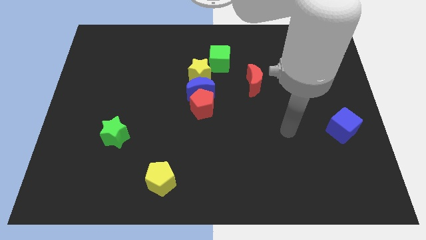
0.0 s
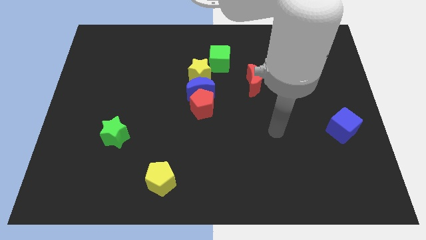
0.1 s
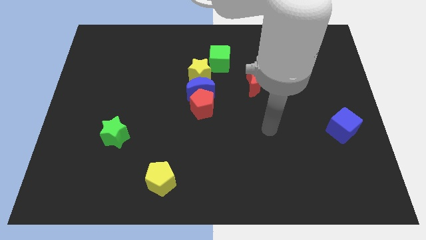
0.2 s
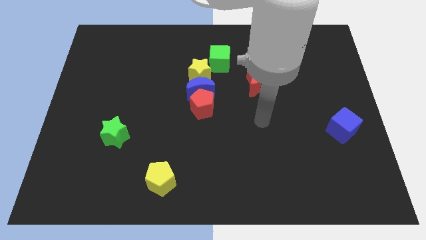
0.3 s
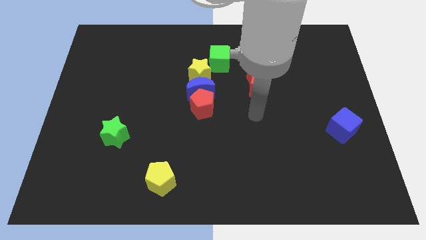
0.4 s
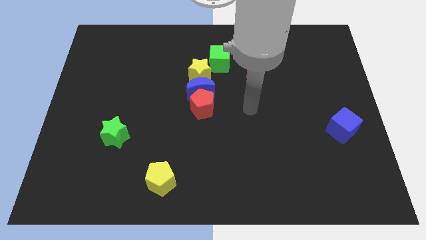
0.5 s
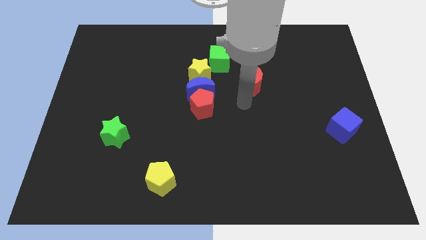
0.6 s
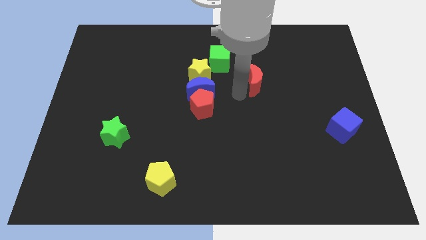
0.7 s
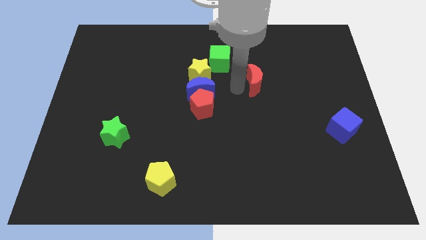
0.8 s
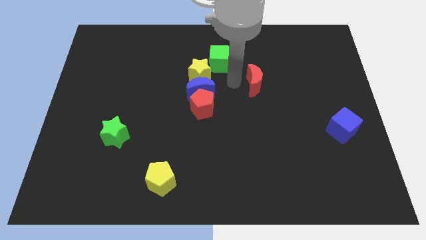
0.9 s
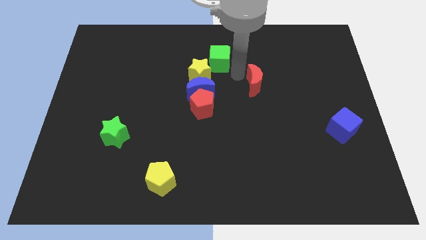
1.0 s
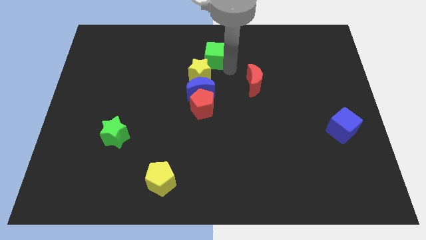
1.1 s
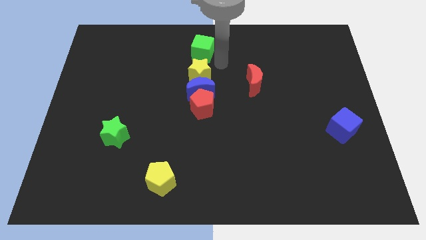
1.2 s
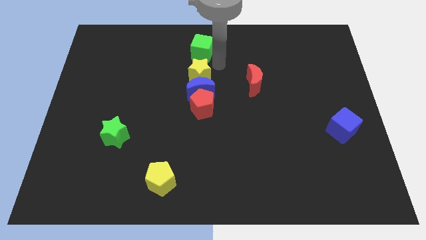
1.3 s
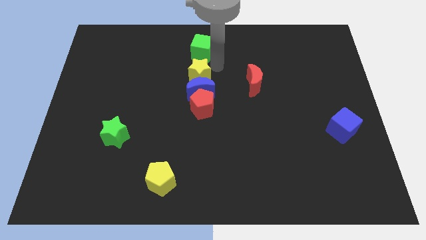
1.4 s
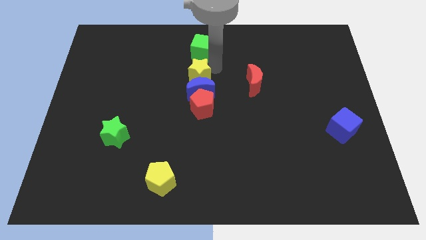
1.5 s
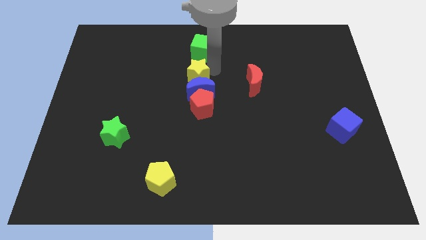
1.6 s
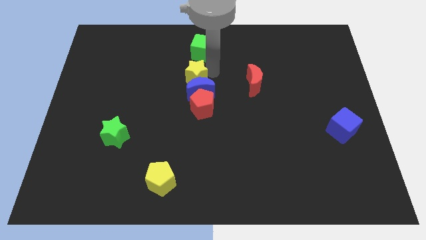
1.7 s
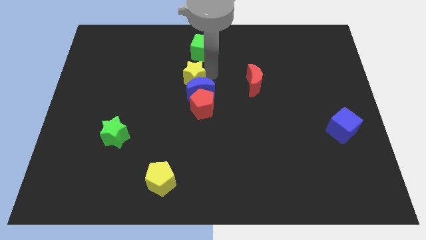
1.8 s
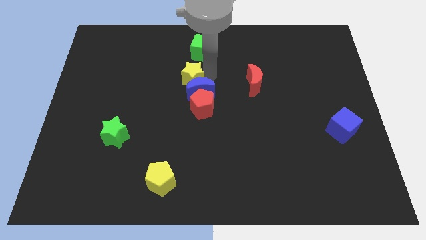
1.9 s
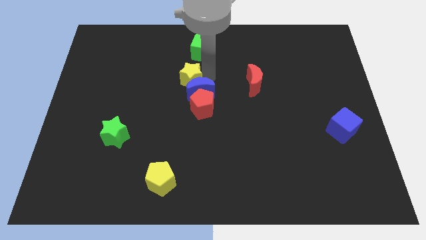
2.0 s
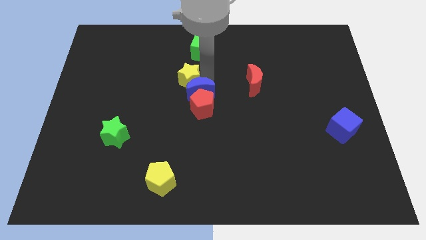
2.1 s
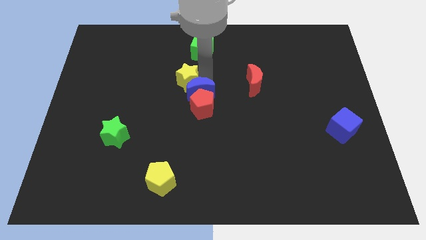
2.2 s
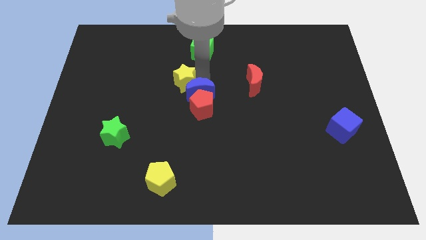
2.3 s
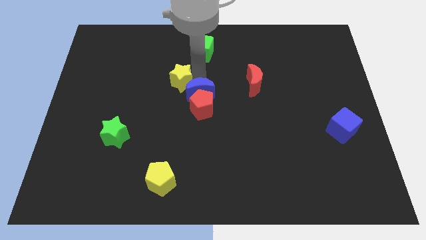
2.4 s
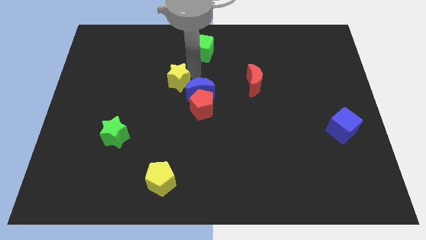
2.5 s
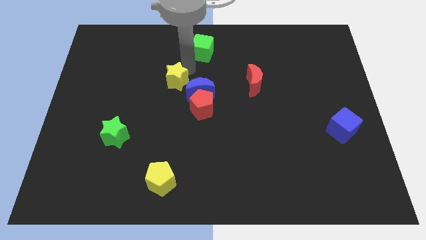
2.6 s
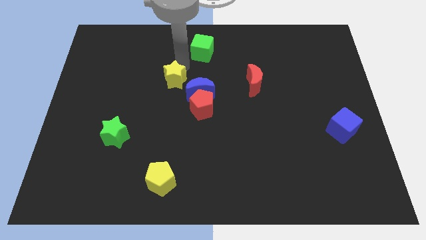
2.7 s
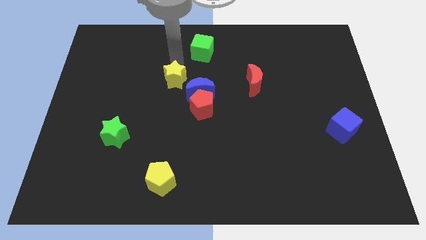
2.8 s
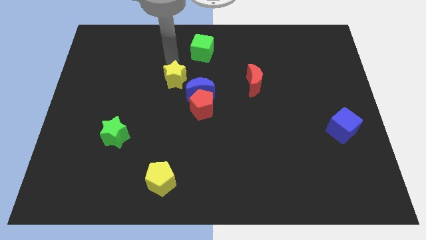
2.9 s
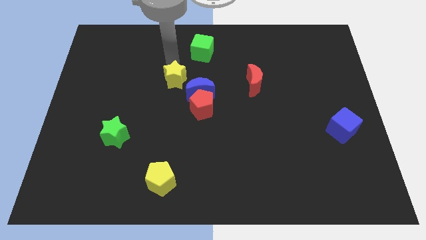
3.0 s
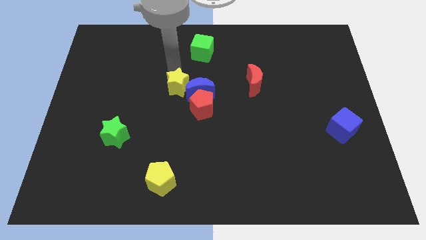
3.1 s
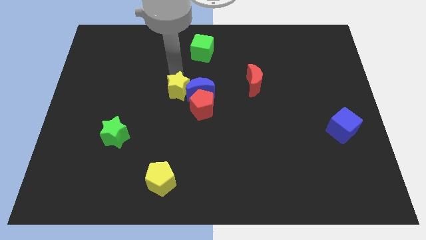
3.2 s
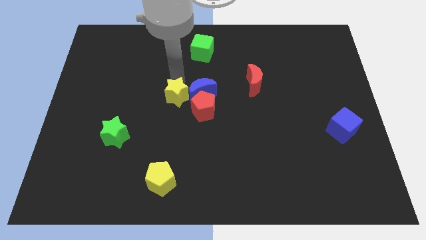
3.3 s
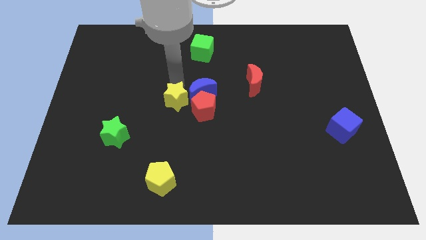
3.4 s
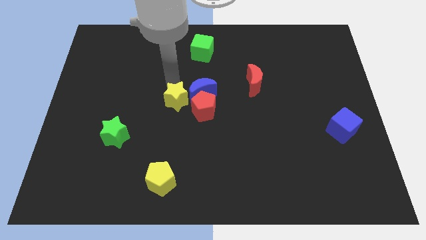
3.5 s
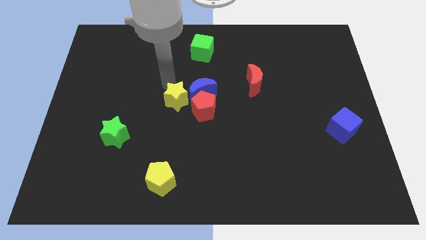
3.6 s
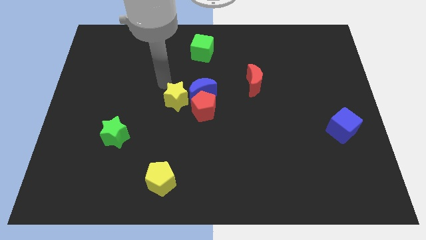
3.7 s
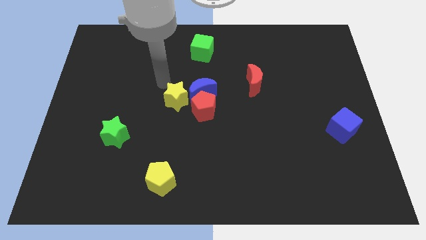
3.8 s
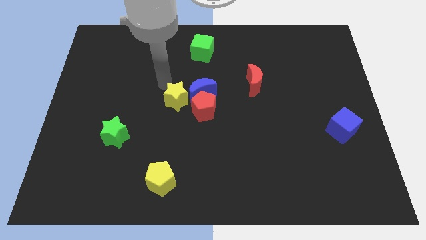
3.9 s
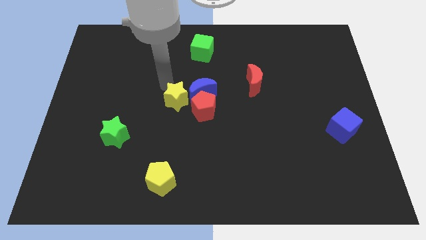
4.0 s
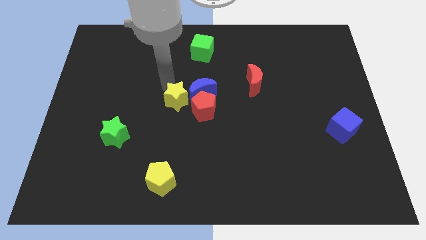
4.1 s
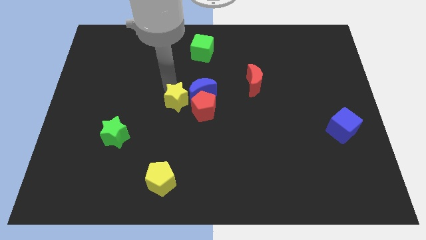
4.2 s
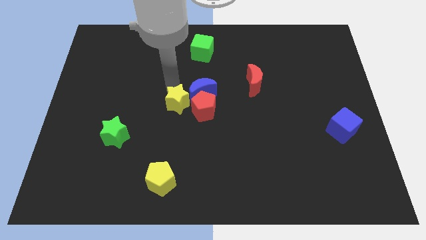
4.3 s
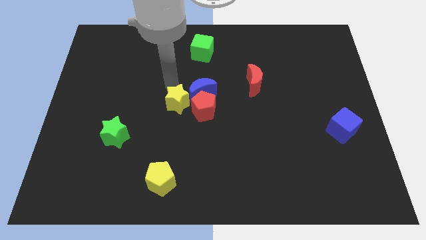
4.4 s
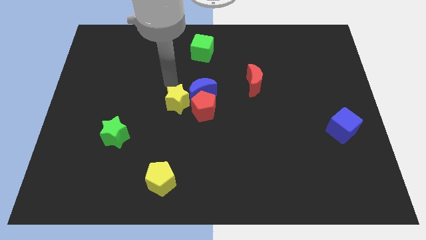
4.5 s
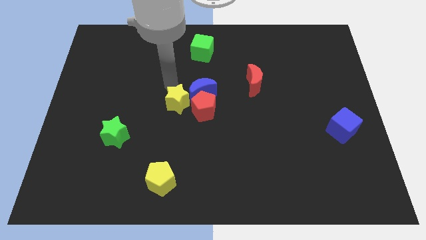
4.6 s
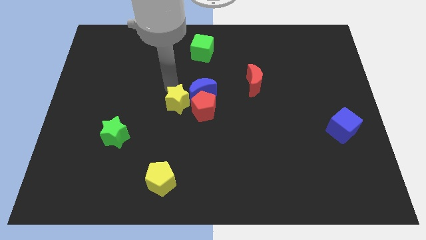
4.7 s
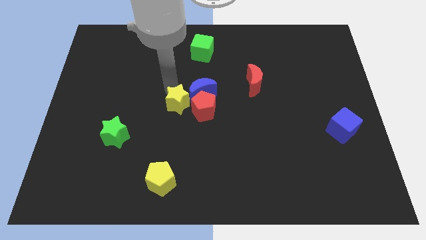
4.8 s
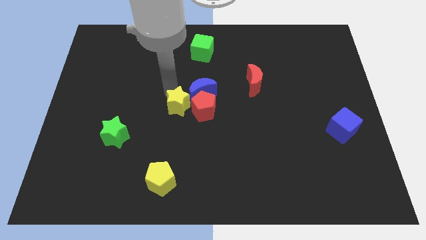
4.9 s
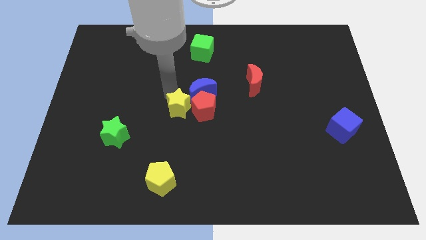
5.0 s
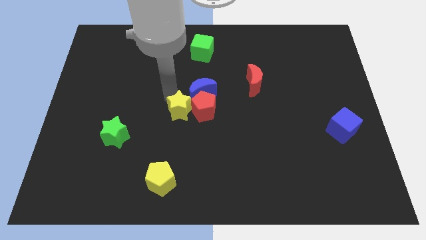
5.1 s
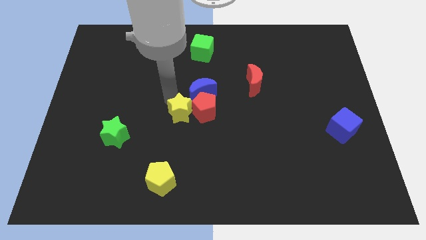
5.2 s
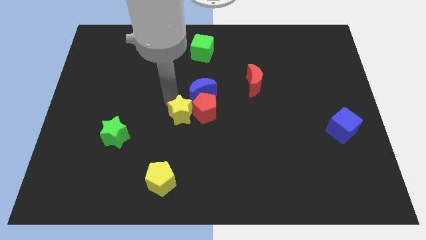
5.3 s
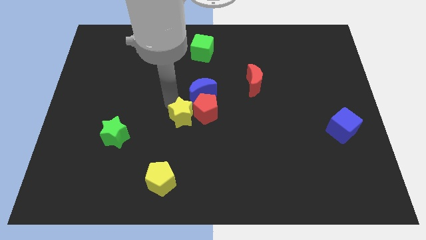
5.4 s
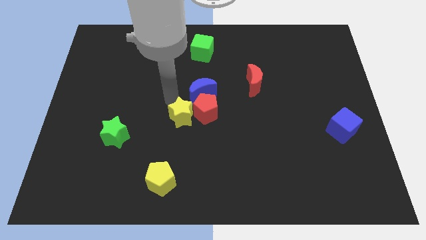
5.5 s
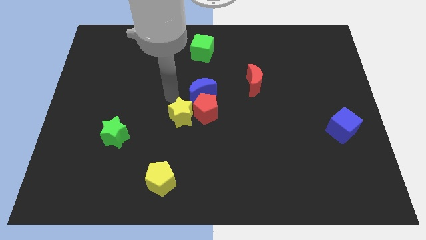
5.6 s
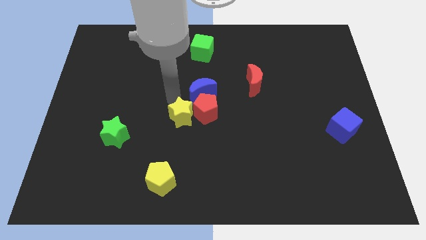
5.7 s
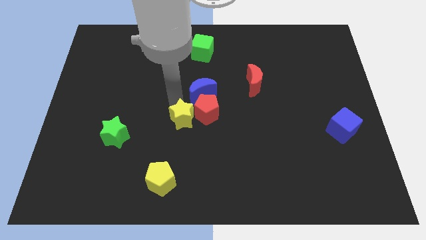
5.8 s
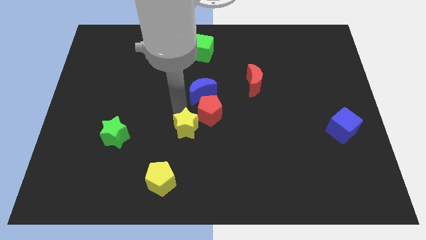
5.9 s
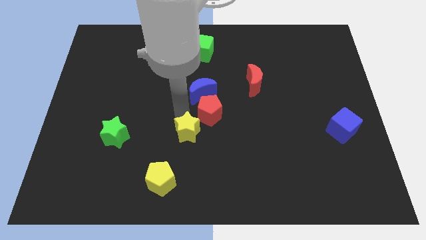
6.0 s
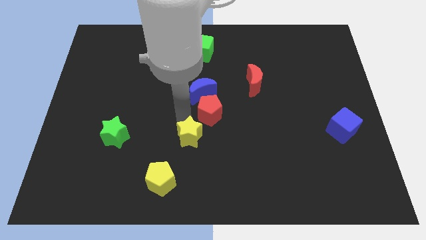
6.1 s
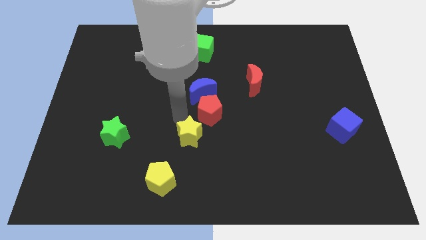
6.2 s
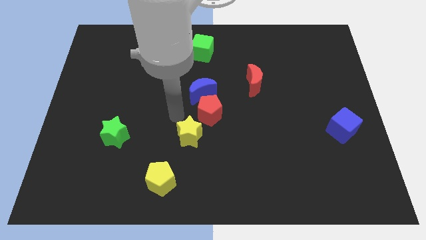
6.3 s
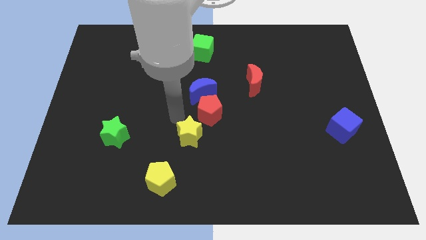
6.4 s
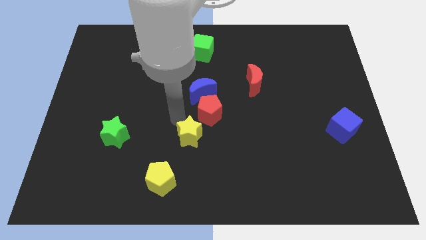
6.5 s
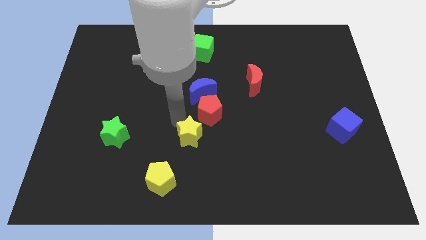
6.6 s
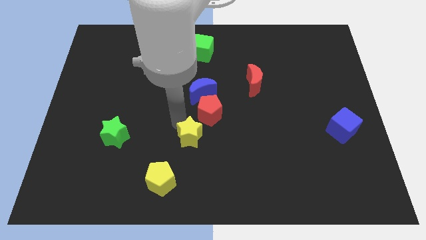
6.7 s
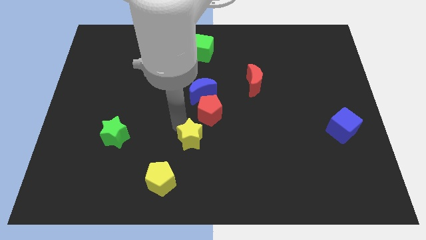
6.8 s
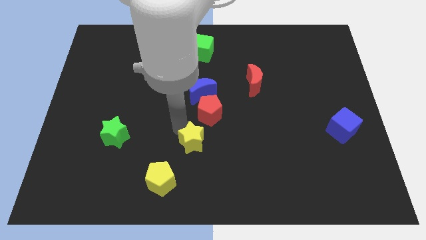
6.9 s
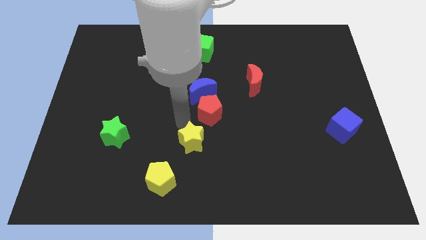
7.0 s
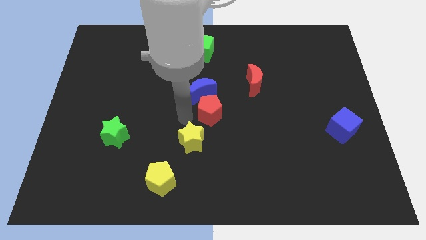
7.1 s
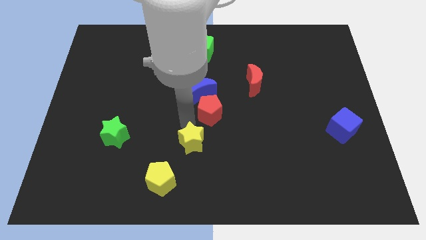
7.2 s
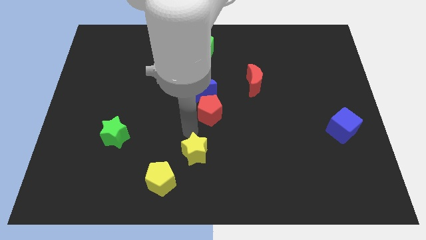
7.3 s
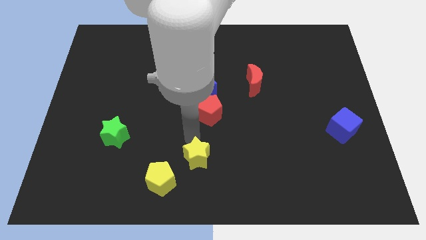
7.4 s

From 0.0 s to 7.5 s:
slide the yellow star to the bottom
